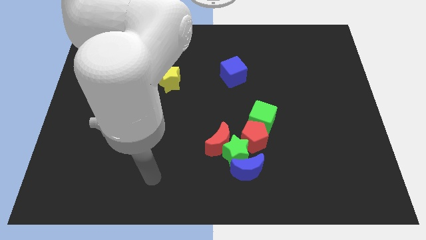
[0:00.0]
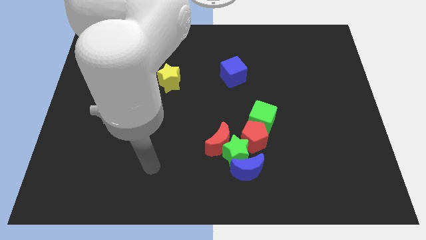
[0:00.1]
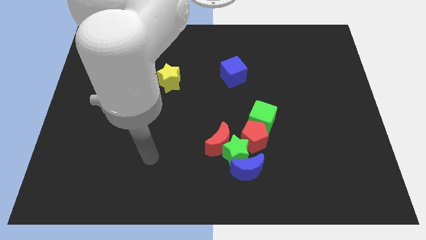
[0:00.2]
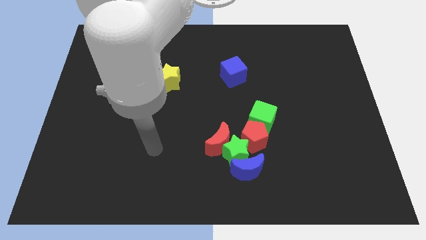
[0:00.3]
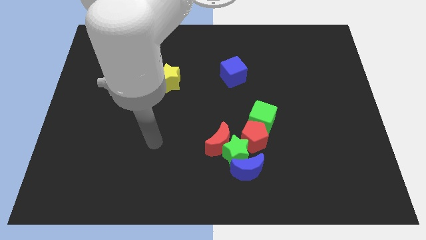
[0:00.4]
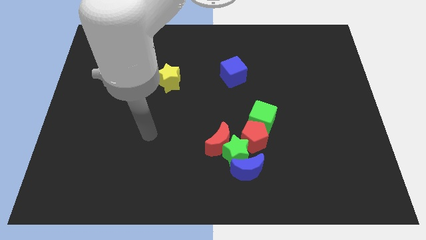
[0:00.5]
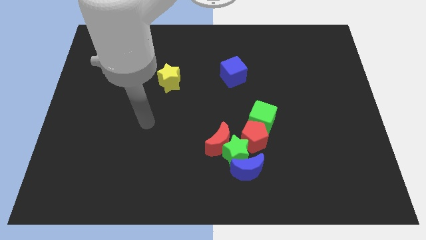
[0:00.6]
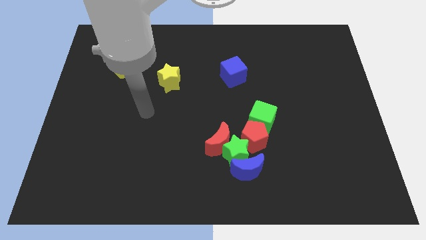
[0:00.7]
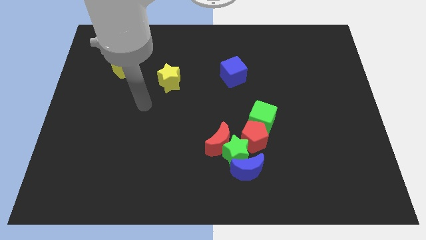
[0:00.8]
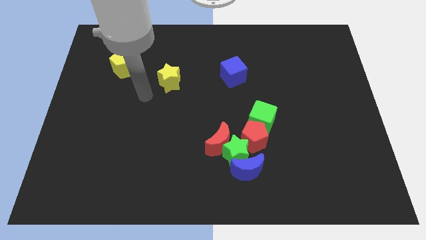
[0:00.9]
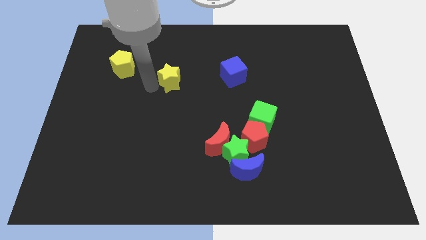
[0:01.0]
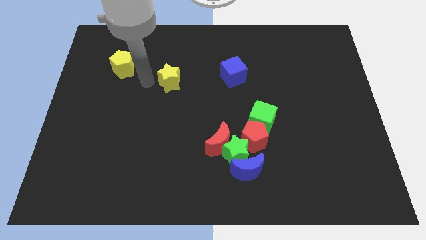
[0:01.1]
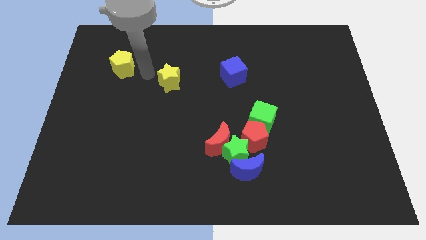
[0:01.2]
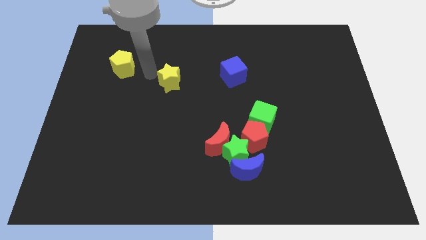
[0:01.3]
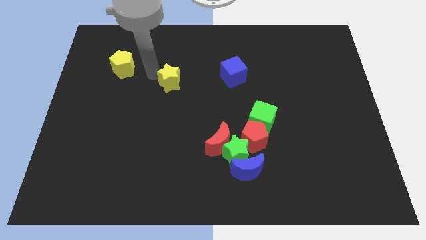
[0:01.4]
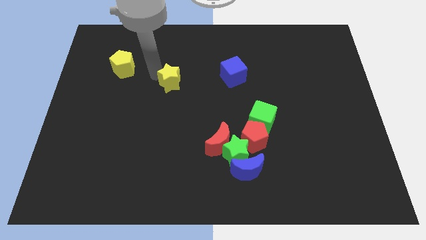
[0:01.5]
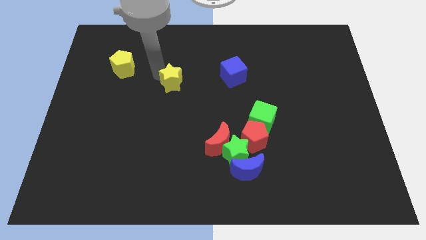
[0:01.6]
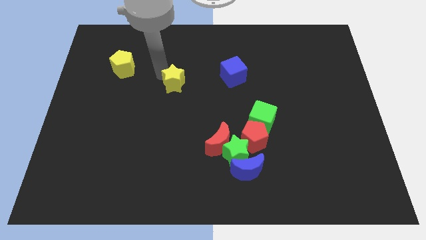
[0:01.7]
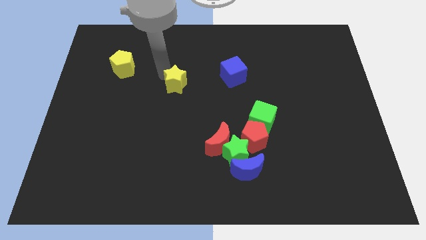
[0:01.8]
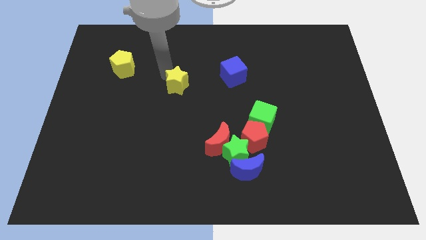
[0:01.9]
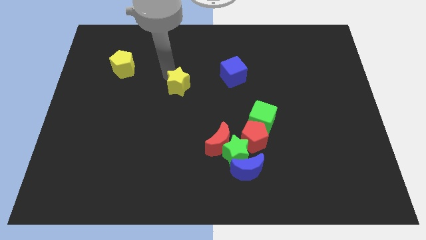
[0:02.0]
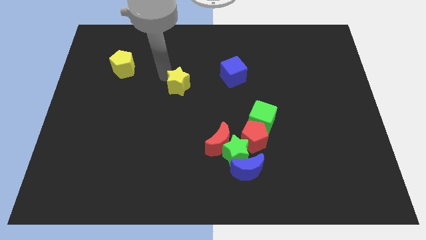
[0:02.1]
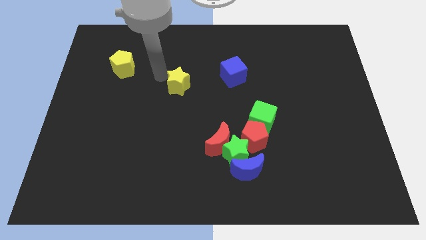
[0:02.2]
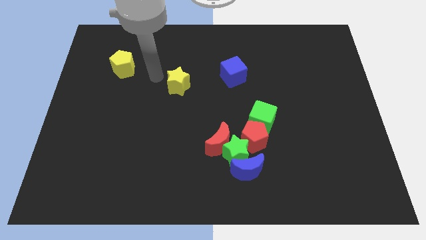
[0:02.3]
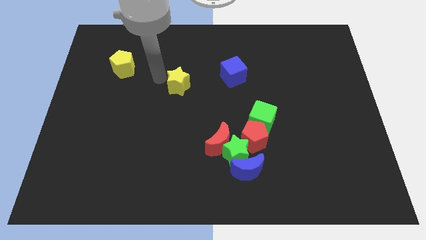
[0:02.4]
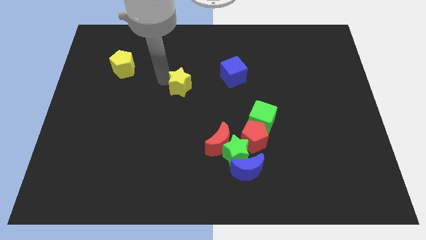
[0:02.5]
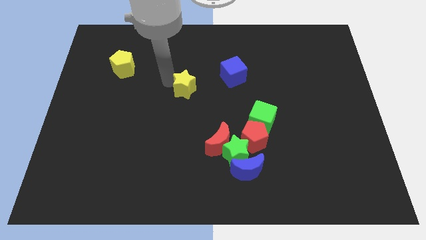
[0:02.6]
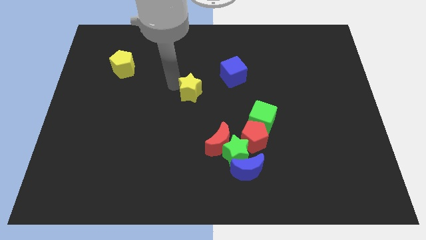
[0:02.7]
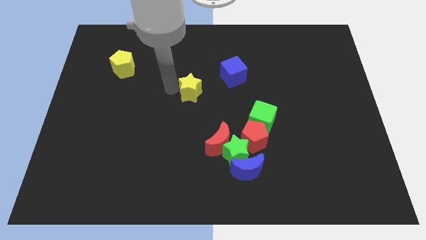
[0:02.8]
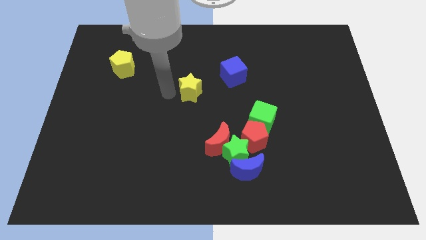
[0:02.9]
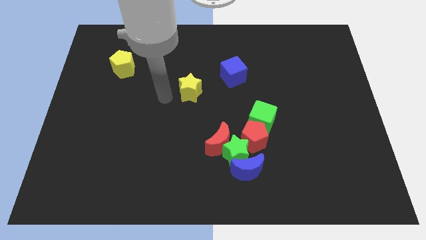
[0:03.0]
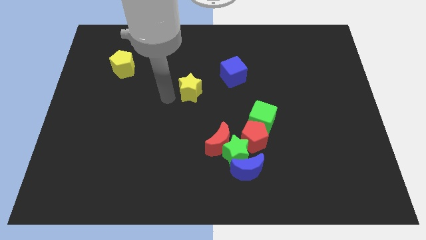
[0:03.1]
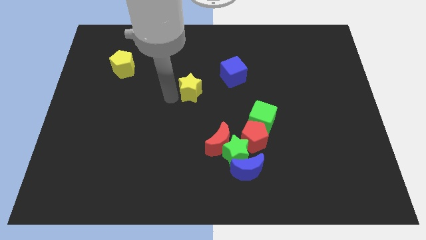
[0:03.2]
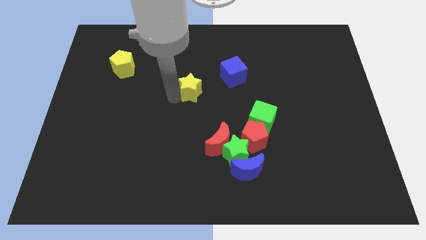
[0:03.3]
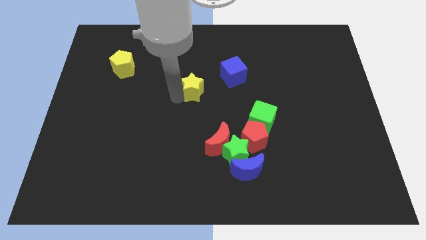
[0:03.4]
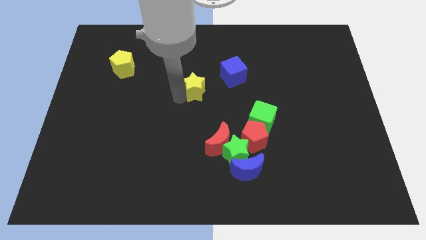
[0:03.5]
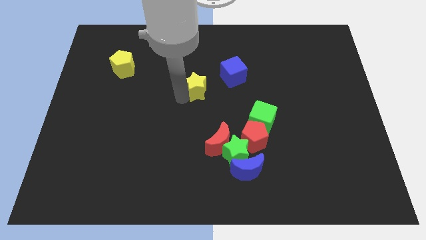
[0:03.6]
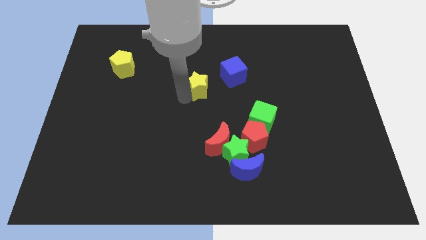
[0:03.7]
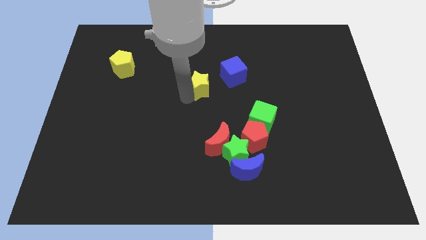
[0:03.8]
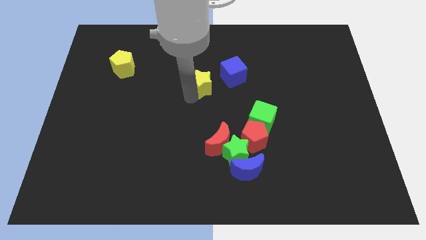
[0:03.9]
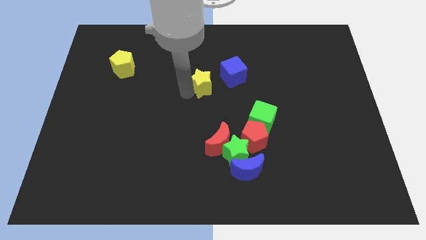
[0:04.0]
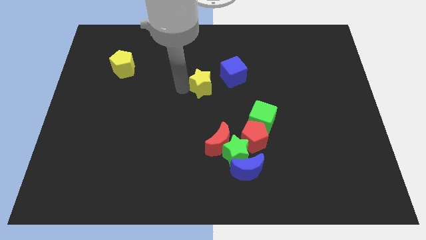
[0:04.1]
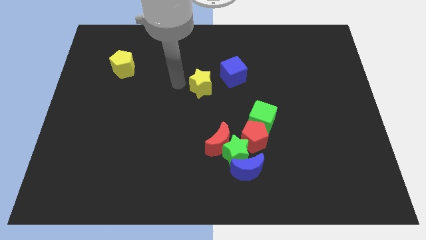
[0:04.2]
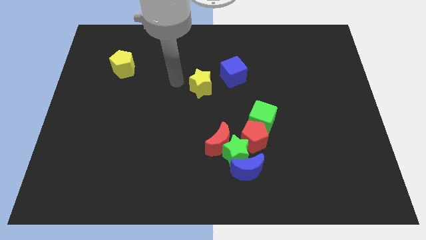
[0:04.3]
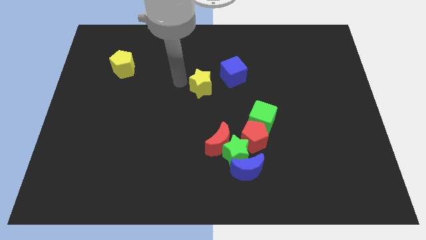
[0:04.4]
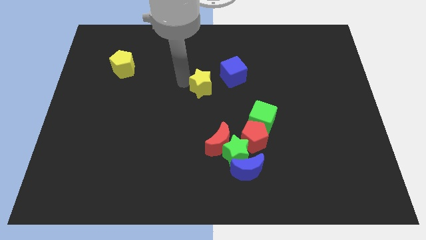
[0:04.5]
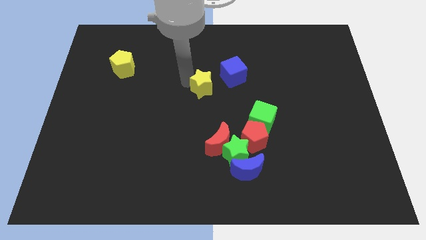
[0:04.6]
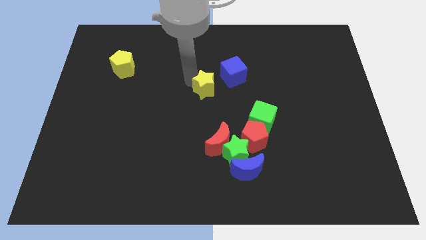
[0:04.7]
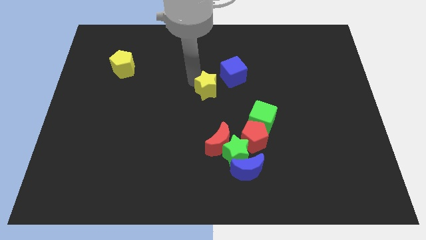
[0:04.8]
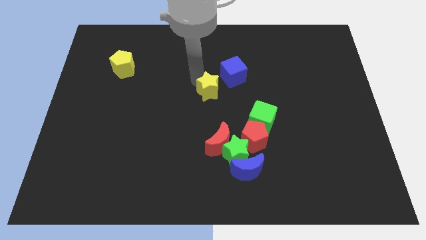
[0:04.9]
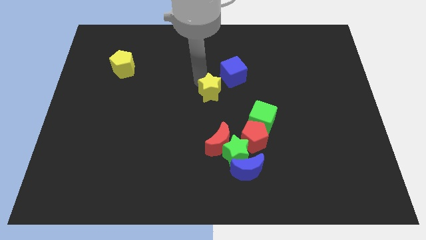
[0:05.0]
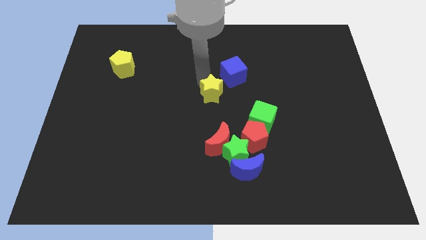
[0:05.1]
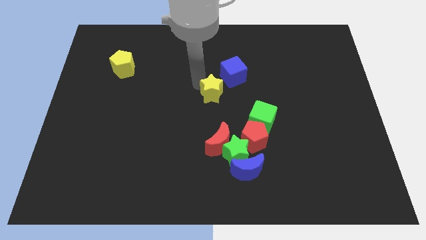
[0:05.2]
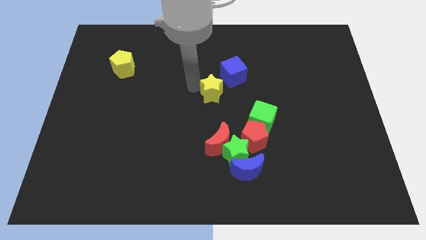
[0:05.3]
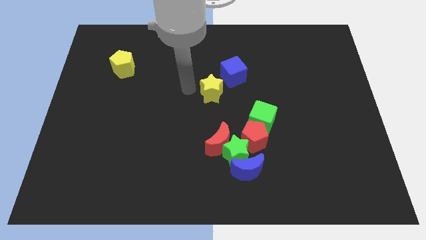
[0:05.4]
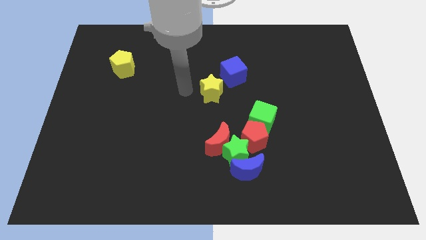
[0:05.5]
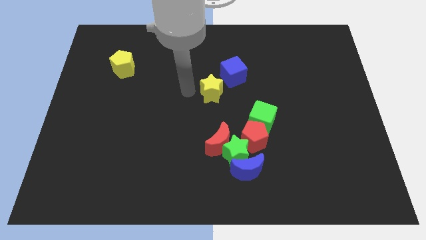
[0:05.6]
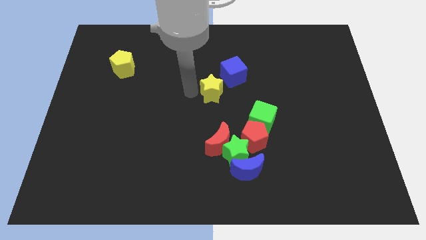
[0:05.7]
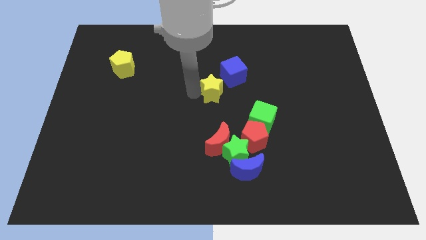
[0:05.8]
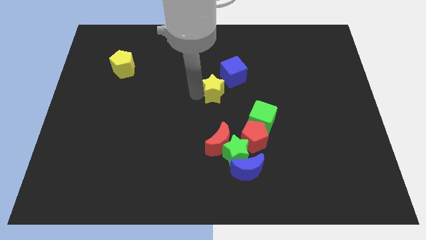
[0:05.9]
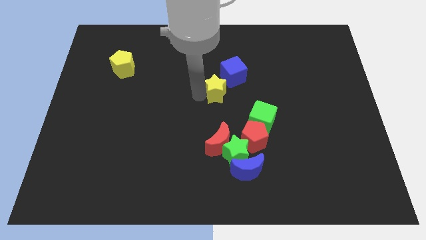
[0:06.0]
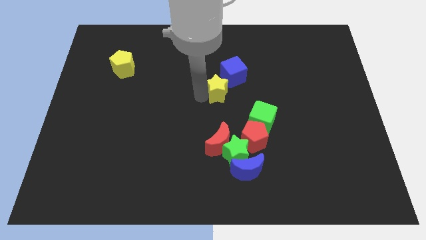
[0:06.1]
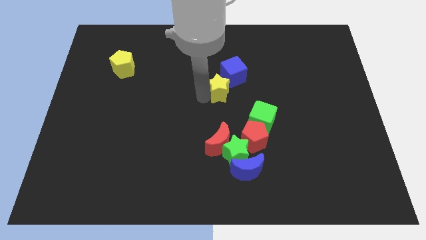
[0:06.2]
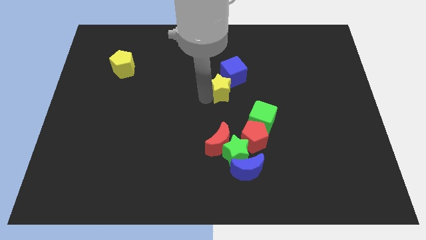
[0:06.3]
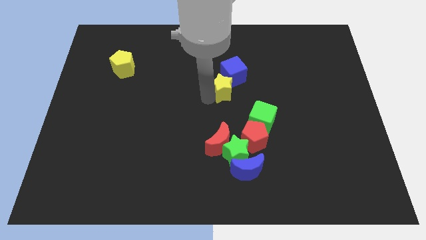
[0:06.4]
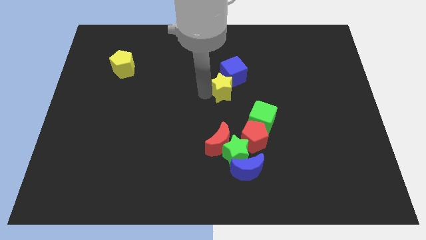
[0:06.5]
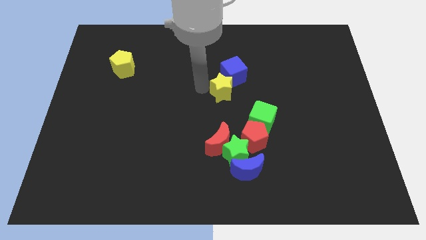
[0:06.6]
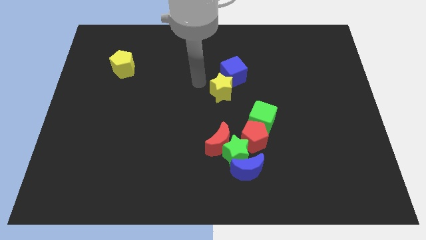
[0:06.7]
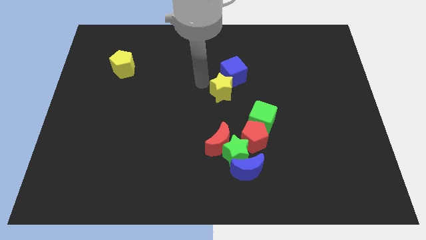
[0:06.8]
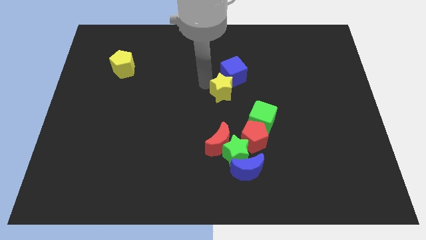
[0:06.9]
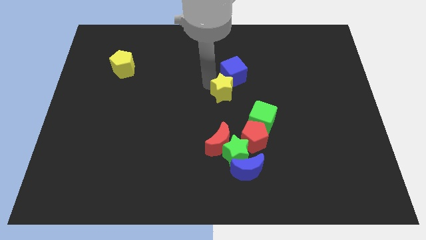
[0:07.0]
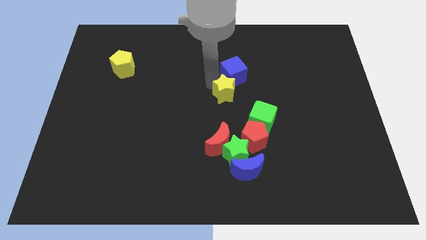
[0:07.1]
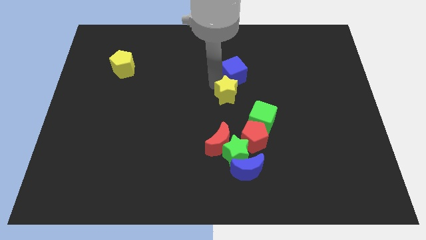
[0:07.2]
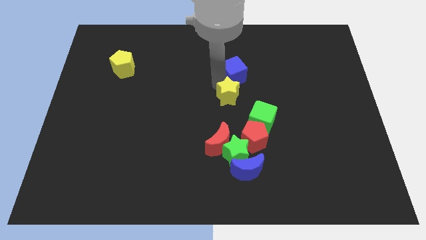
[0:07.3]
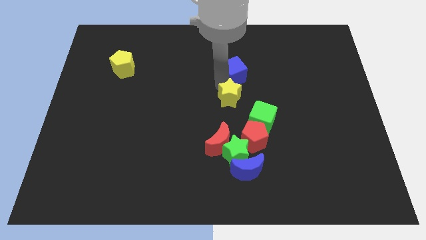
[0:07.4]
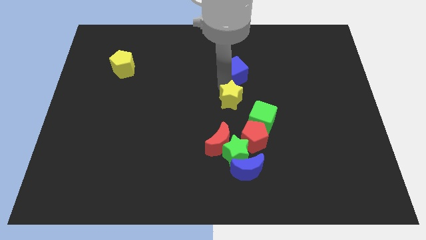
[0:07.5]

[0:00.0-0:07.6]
slide the yellow star to the top side of the red pentagon
